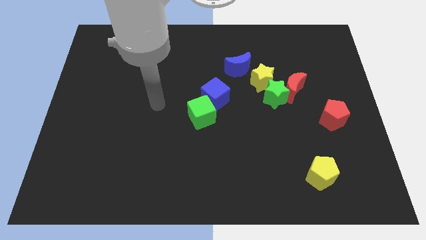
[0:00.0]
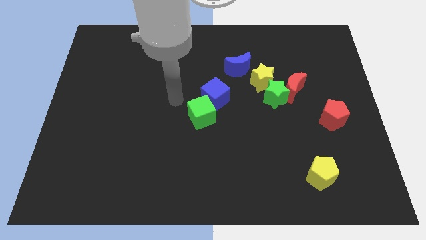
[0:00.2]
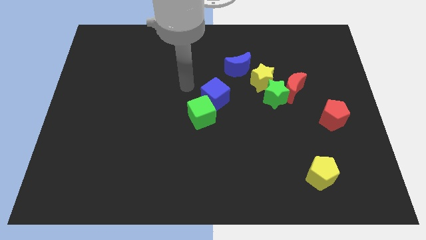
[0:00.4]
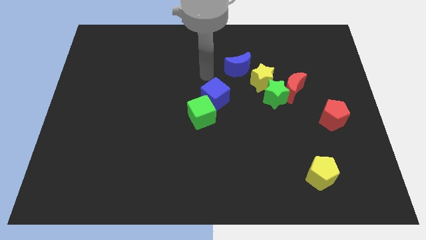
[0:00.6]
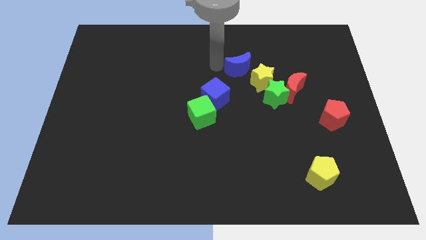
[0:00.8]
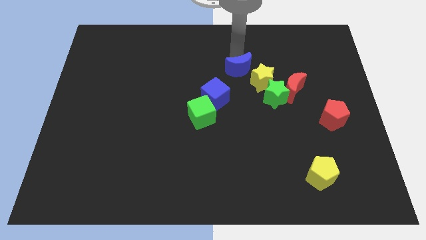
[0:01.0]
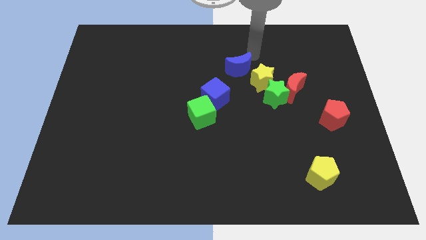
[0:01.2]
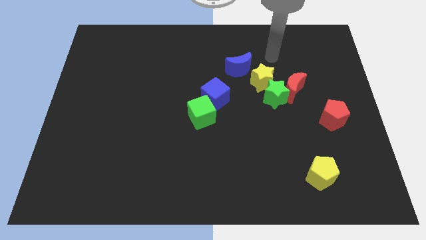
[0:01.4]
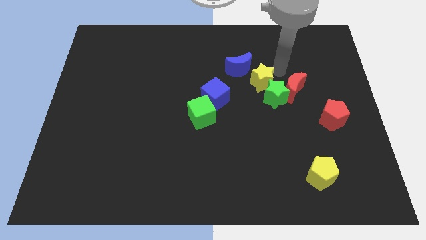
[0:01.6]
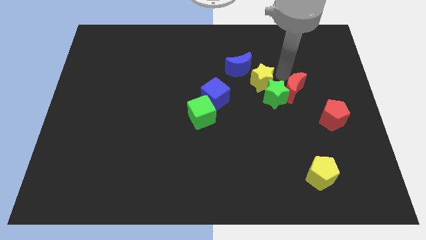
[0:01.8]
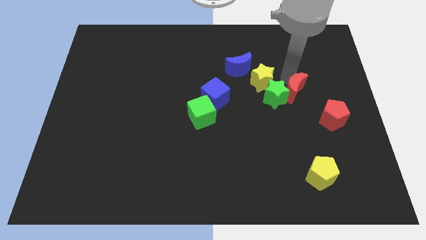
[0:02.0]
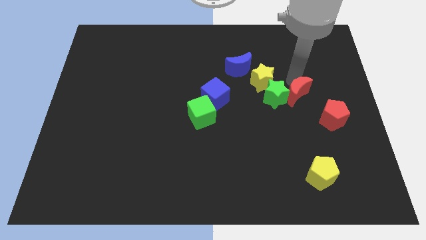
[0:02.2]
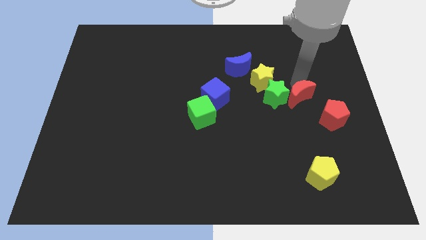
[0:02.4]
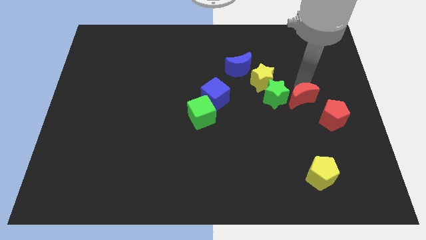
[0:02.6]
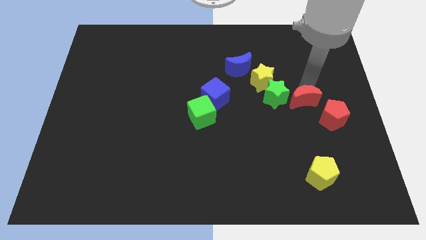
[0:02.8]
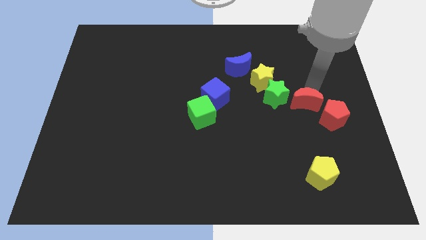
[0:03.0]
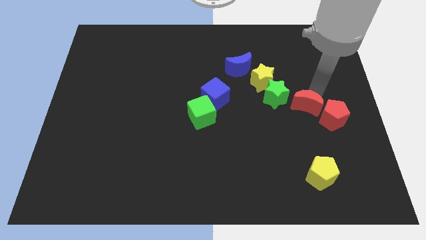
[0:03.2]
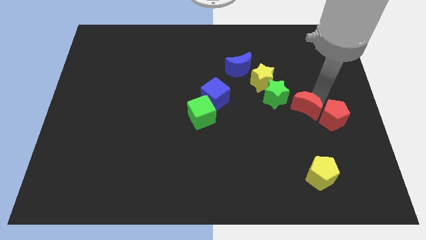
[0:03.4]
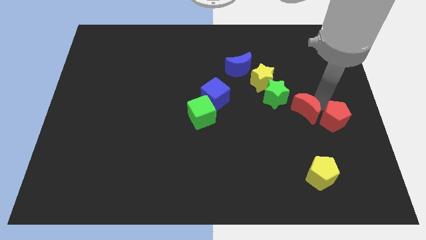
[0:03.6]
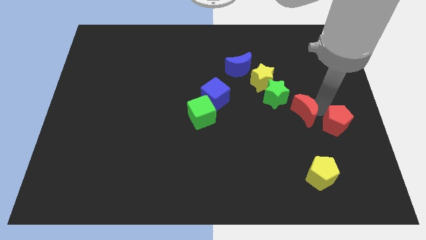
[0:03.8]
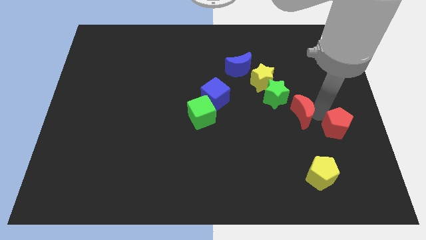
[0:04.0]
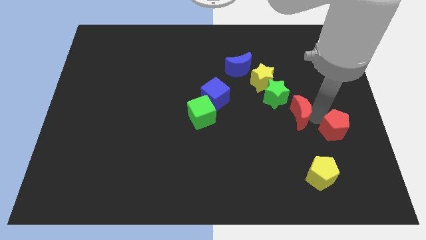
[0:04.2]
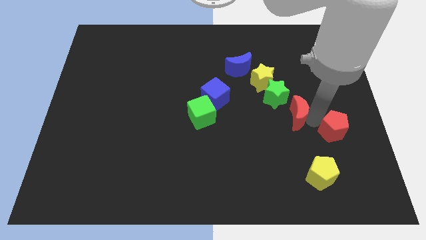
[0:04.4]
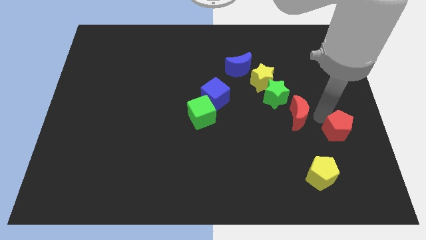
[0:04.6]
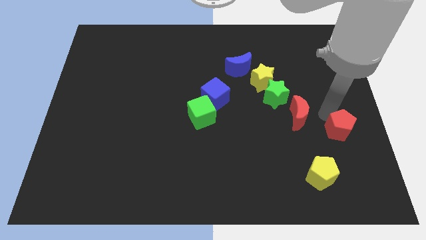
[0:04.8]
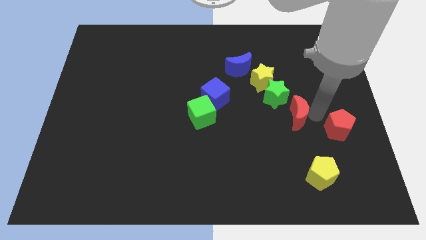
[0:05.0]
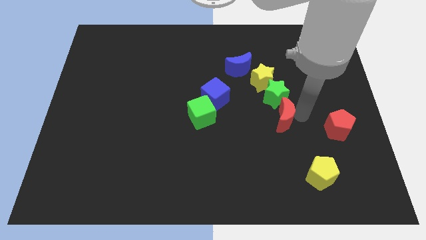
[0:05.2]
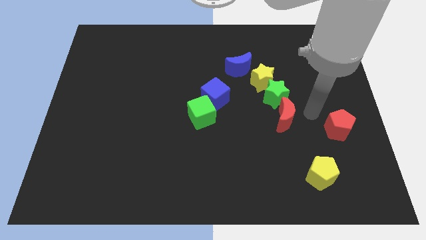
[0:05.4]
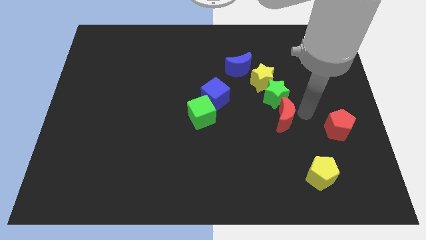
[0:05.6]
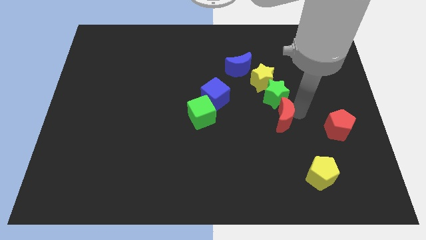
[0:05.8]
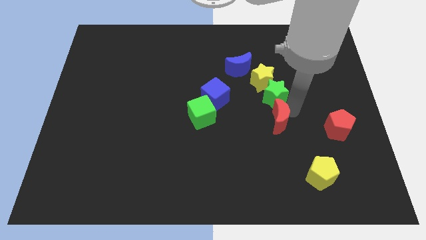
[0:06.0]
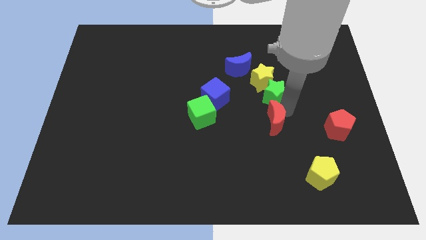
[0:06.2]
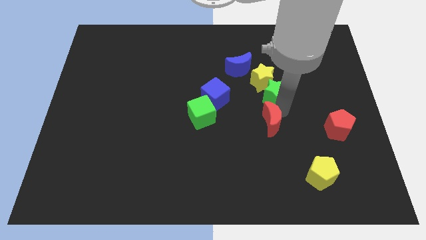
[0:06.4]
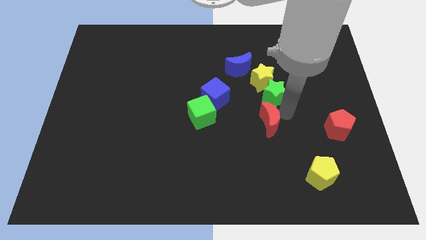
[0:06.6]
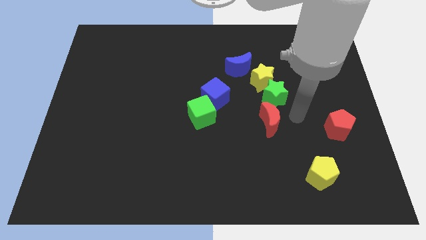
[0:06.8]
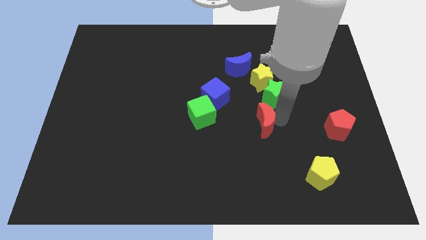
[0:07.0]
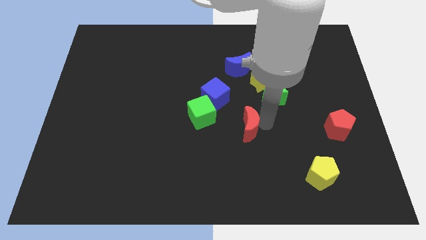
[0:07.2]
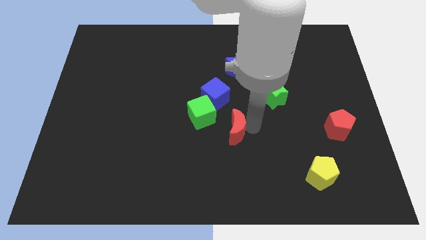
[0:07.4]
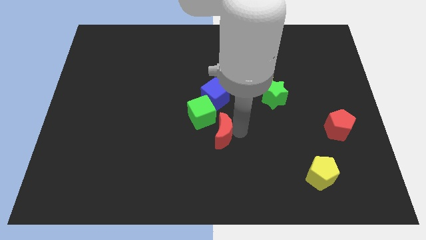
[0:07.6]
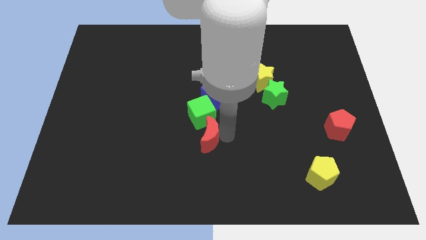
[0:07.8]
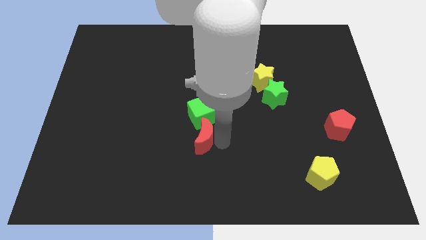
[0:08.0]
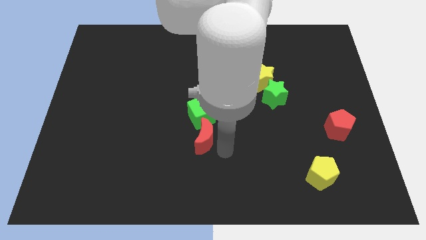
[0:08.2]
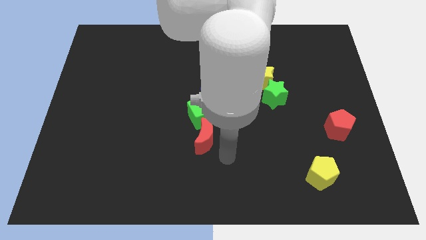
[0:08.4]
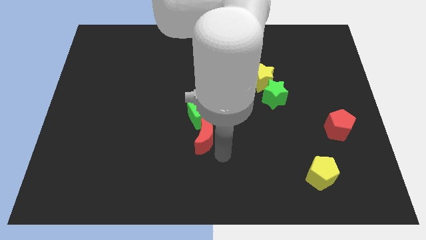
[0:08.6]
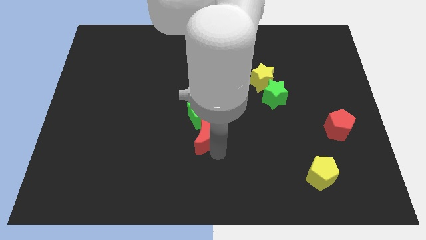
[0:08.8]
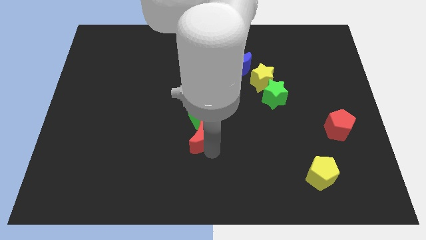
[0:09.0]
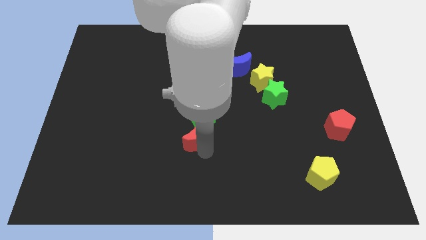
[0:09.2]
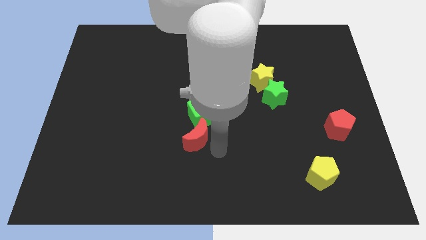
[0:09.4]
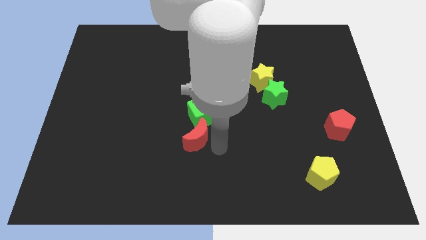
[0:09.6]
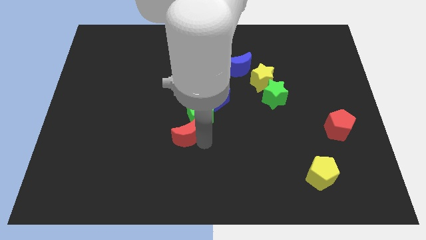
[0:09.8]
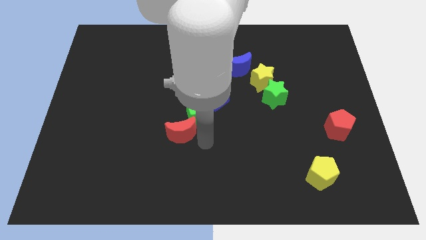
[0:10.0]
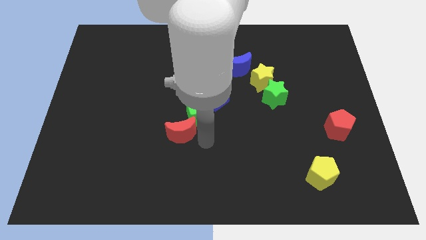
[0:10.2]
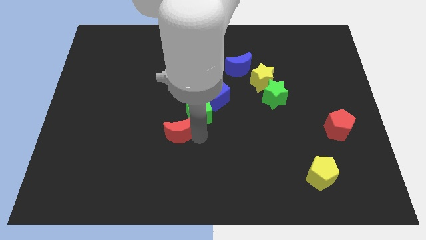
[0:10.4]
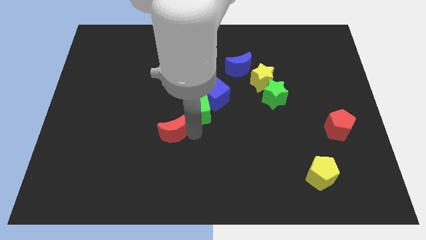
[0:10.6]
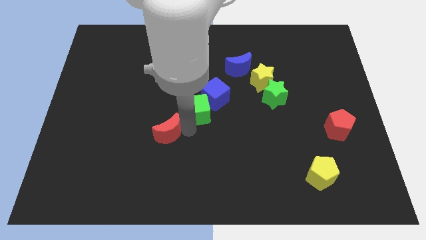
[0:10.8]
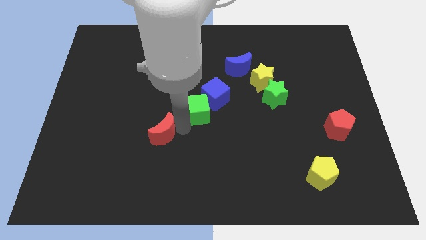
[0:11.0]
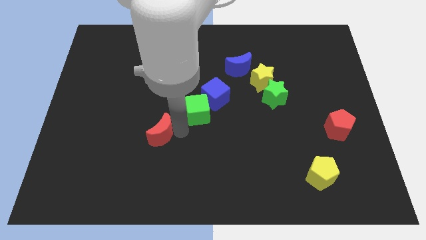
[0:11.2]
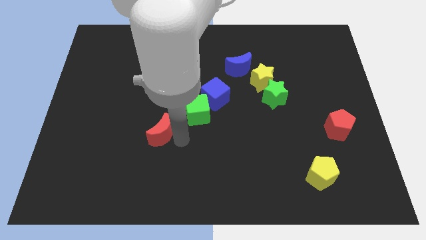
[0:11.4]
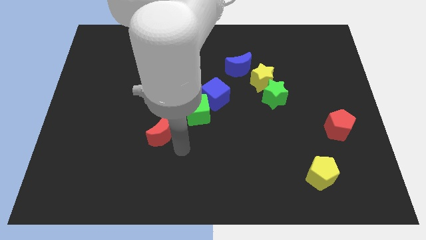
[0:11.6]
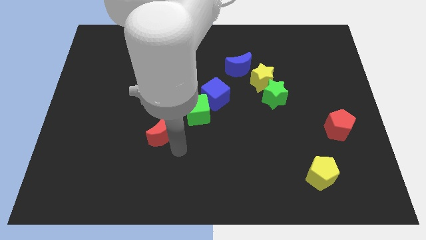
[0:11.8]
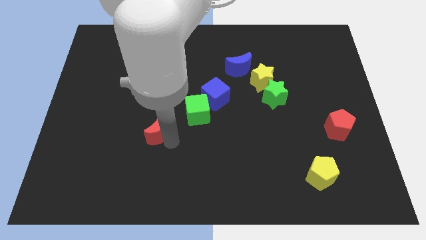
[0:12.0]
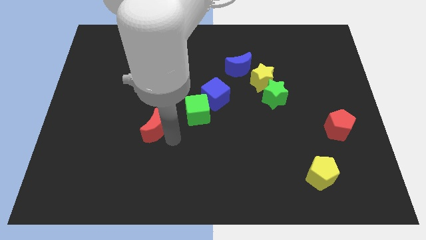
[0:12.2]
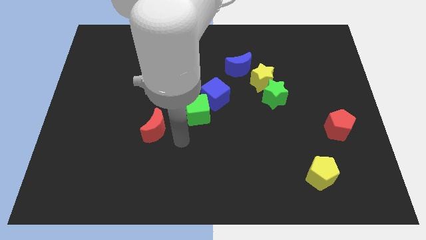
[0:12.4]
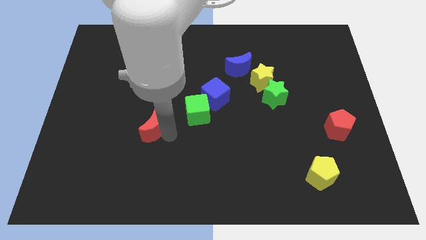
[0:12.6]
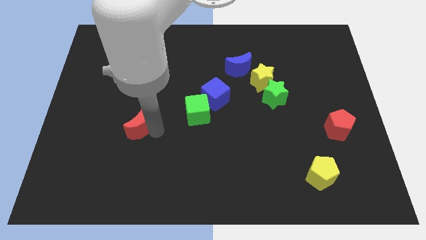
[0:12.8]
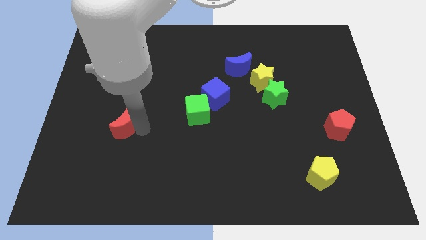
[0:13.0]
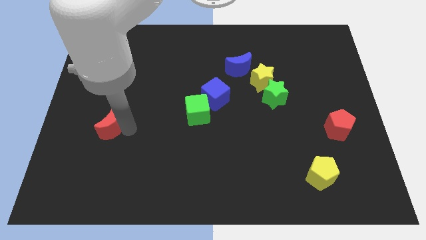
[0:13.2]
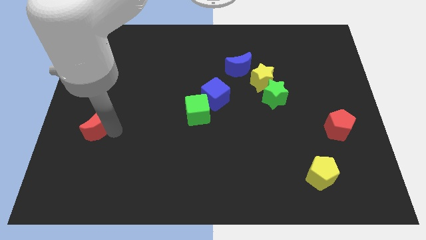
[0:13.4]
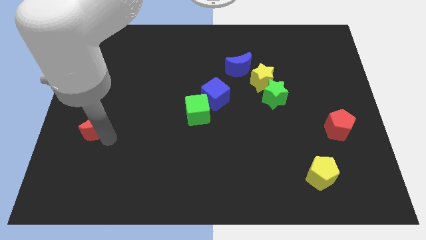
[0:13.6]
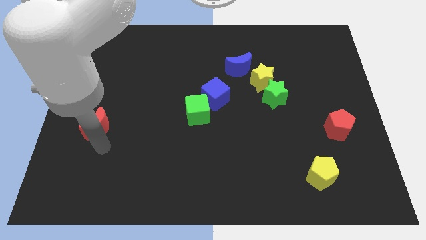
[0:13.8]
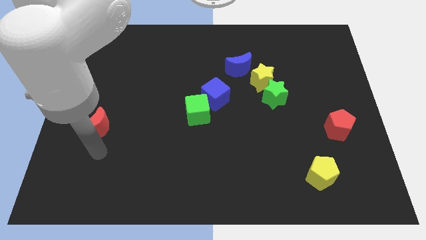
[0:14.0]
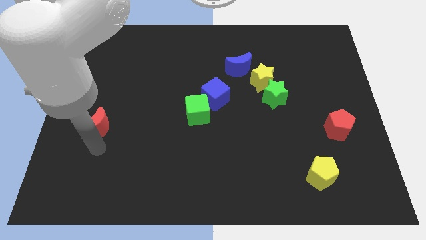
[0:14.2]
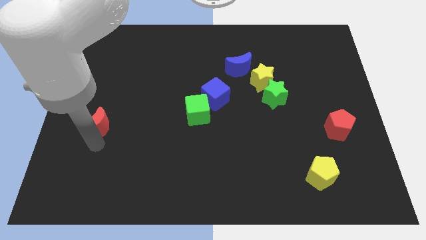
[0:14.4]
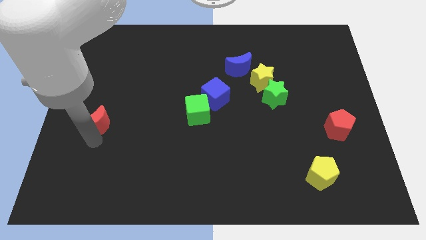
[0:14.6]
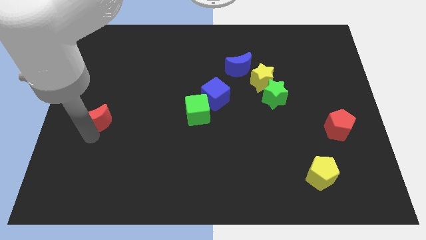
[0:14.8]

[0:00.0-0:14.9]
slide the red moon to the center left
